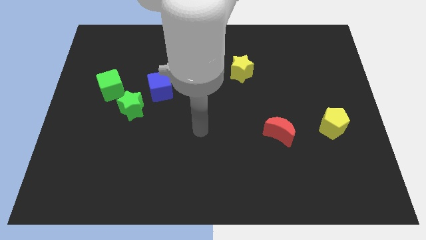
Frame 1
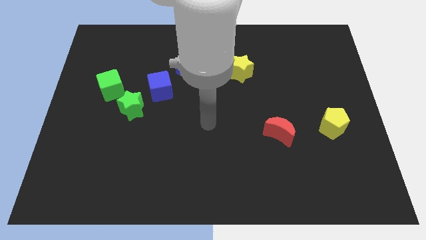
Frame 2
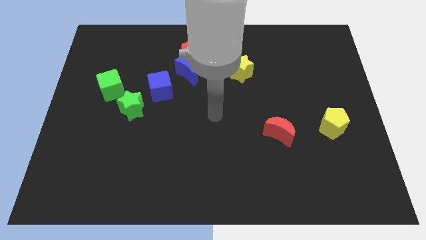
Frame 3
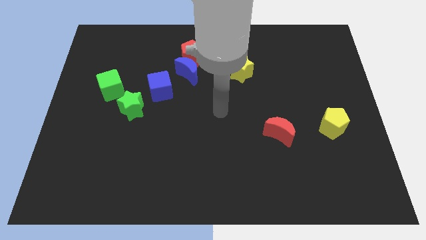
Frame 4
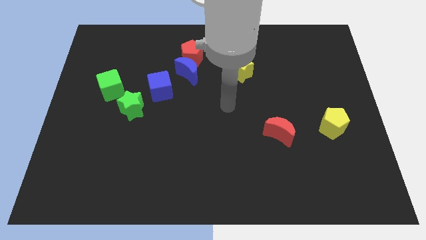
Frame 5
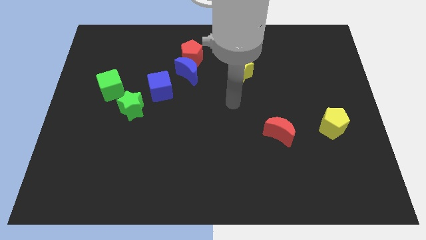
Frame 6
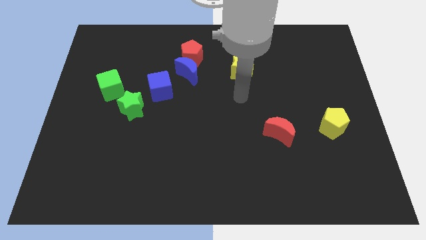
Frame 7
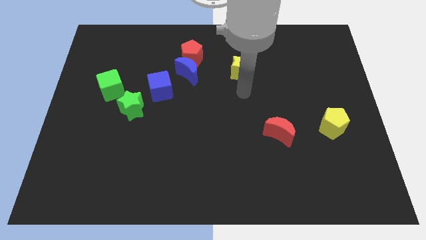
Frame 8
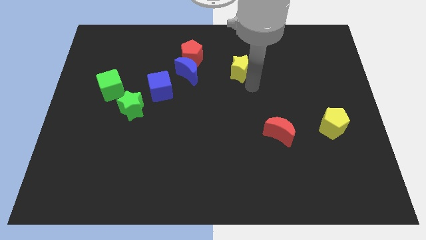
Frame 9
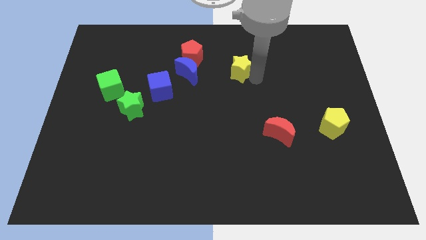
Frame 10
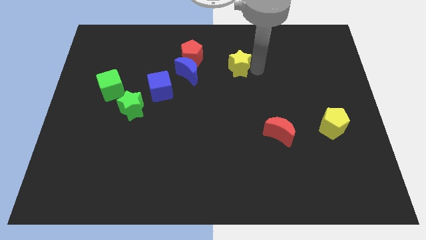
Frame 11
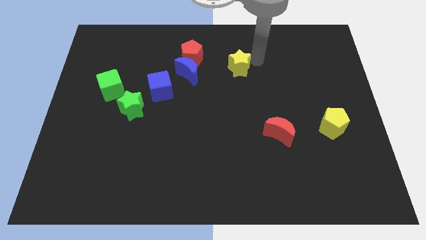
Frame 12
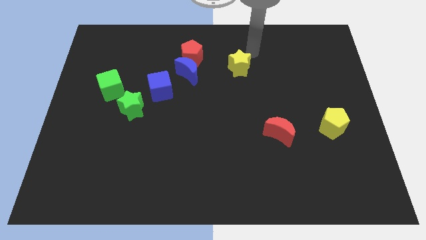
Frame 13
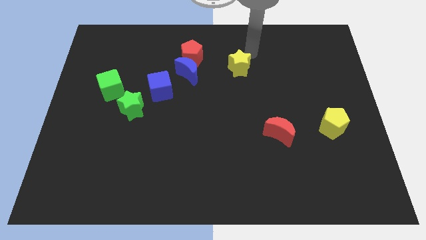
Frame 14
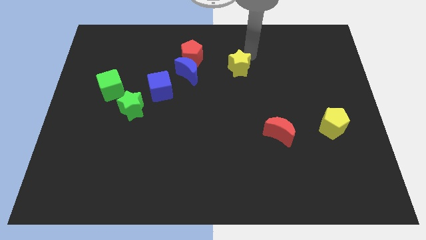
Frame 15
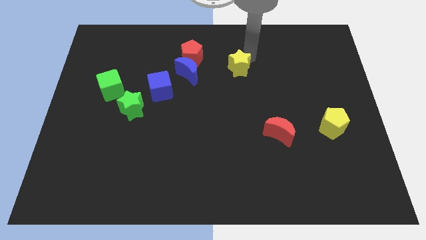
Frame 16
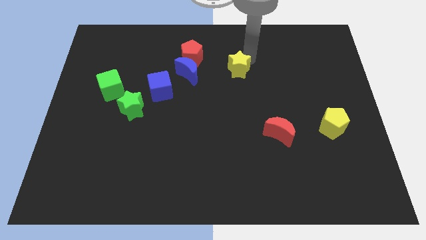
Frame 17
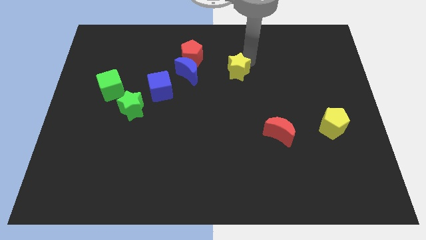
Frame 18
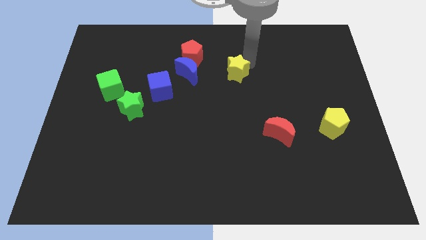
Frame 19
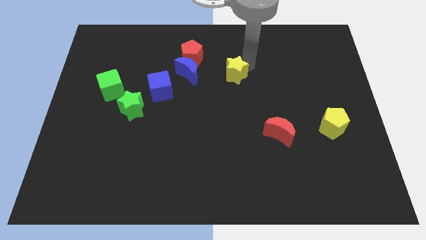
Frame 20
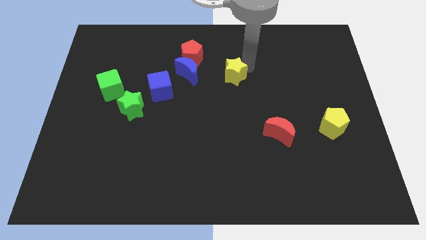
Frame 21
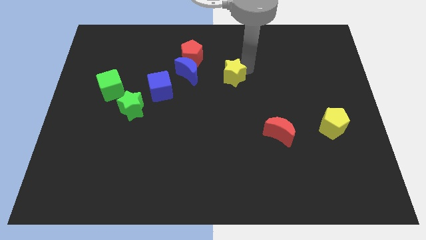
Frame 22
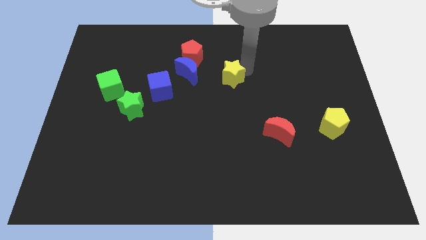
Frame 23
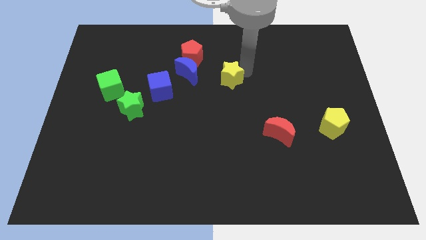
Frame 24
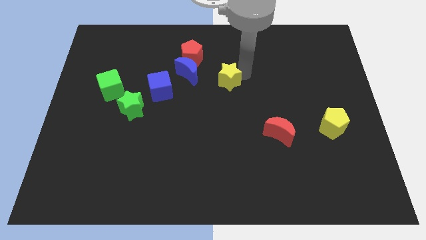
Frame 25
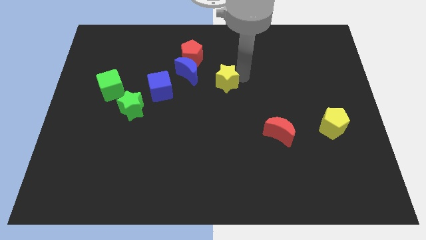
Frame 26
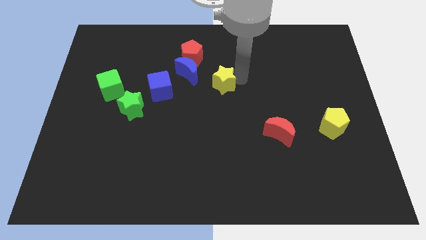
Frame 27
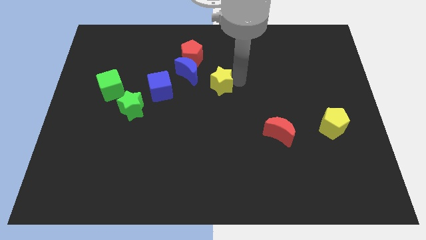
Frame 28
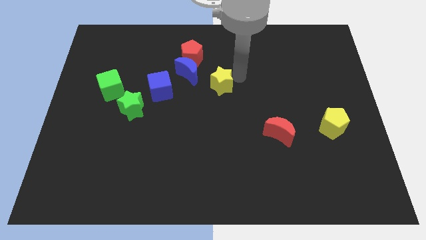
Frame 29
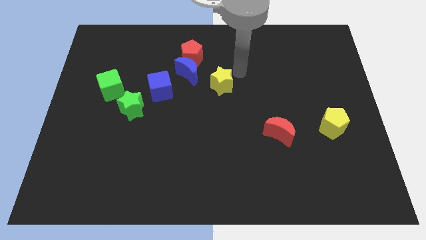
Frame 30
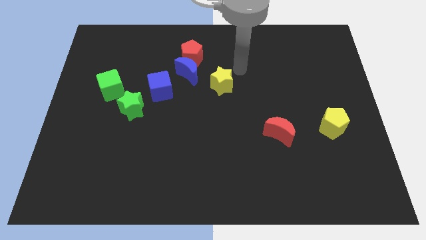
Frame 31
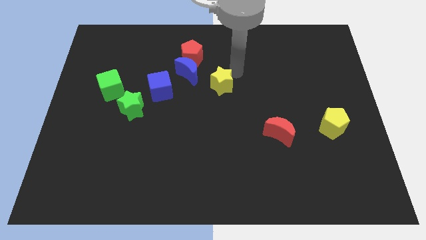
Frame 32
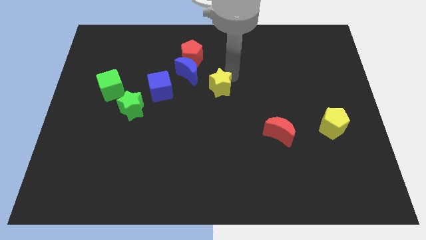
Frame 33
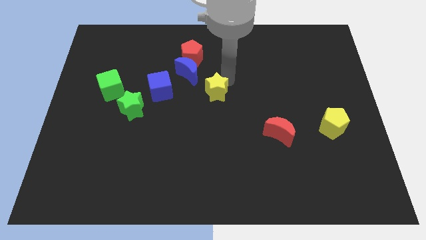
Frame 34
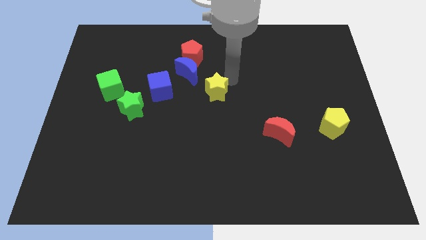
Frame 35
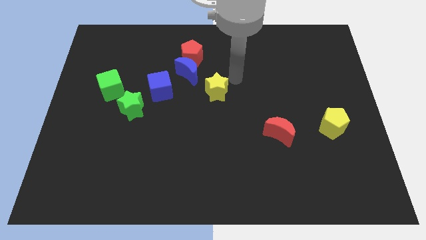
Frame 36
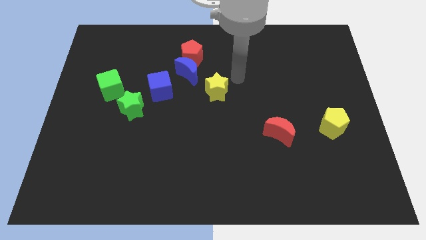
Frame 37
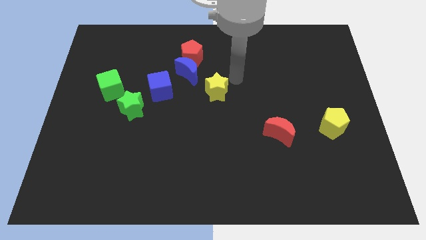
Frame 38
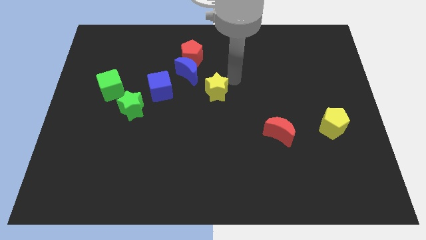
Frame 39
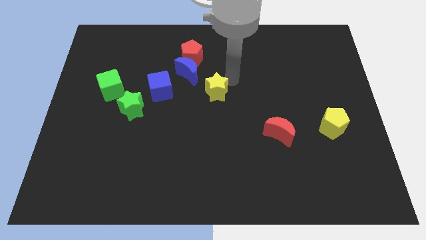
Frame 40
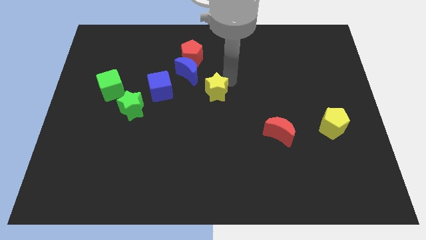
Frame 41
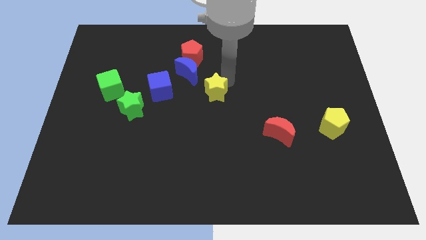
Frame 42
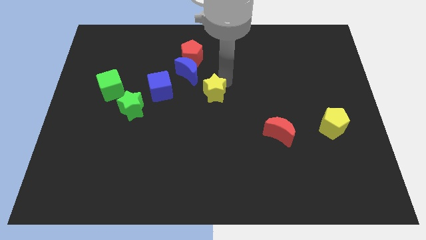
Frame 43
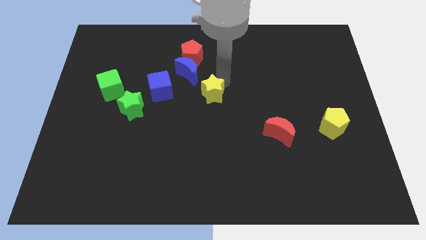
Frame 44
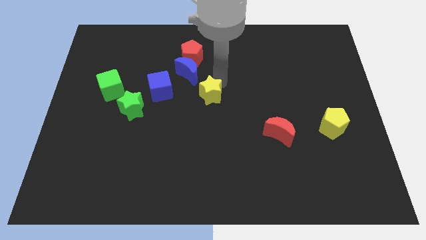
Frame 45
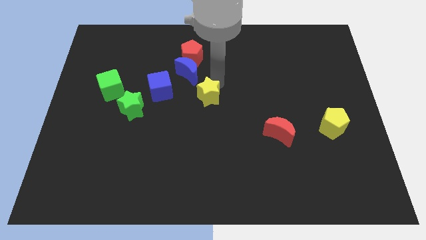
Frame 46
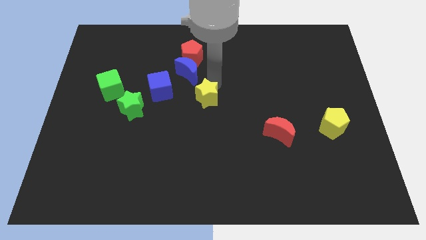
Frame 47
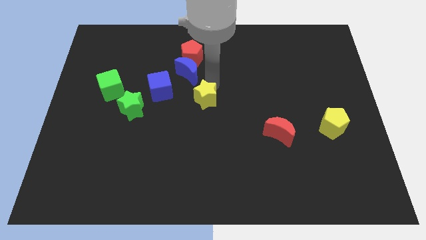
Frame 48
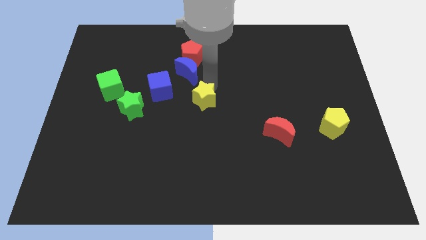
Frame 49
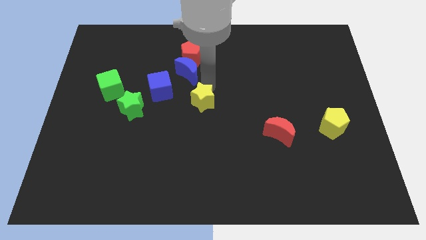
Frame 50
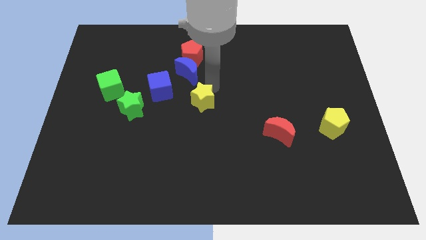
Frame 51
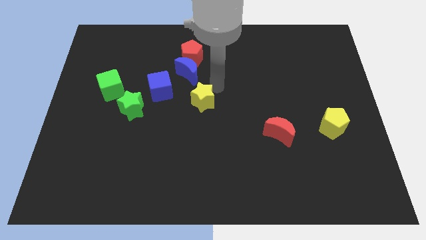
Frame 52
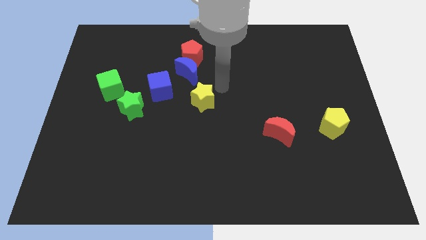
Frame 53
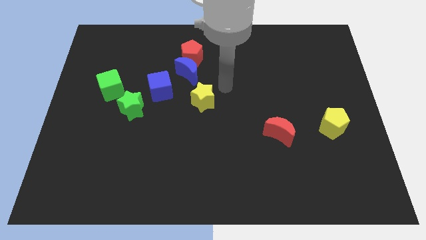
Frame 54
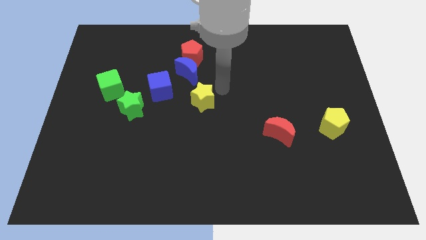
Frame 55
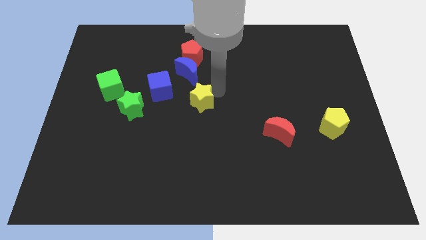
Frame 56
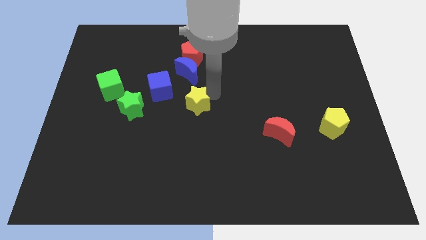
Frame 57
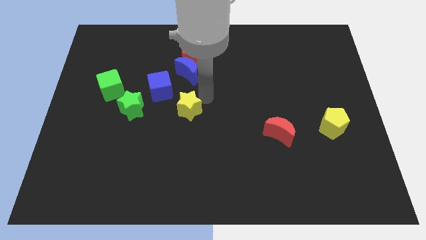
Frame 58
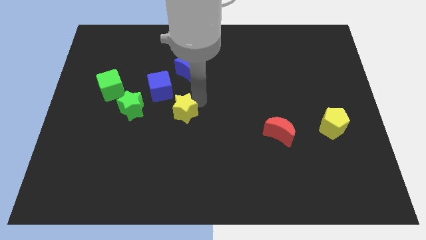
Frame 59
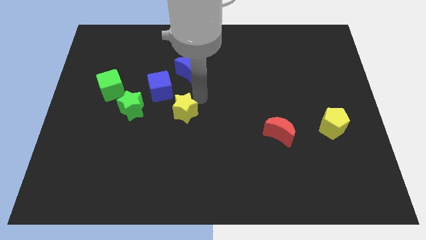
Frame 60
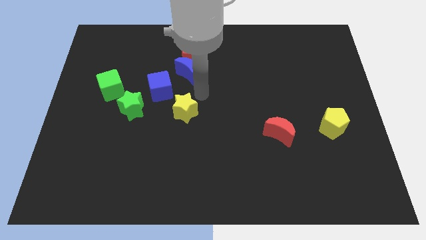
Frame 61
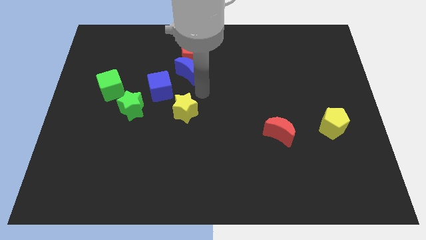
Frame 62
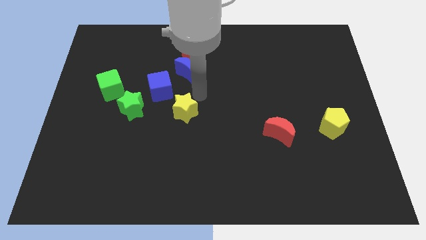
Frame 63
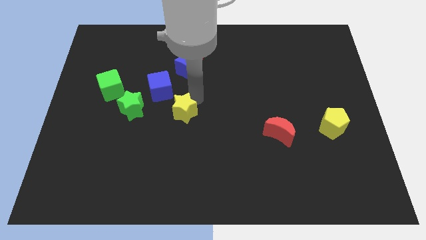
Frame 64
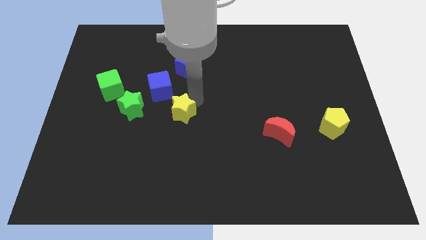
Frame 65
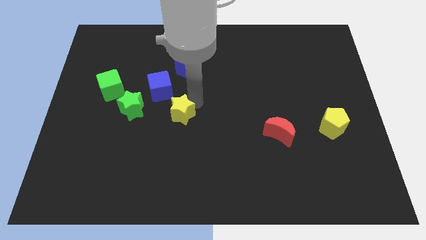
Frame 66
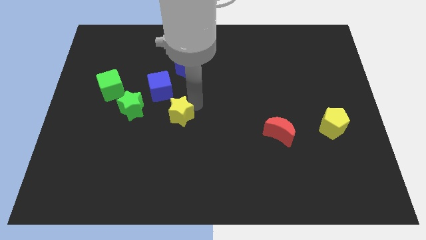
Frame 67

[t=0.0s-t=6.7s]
move the yellow star down and left diagonally

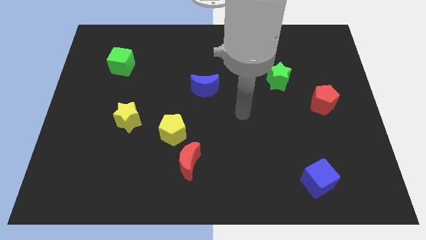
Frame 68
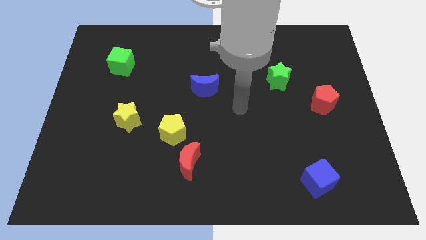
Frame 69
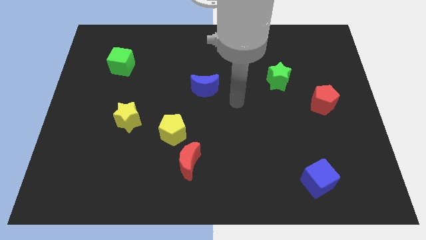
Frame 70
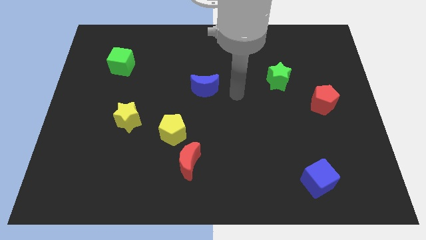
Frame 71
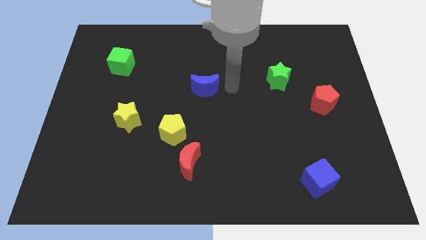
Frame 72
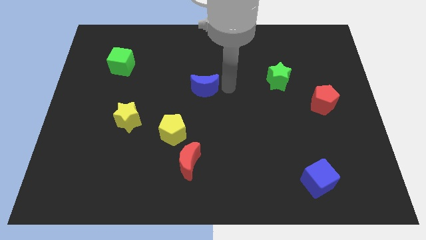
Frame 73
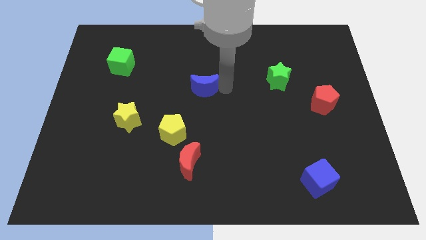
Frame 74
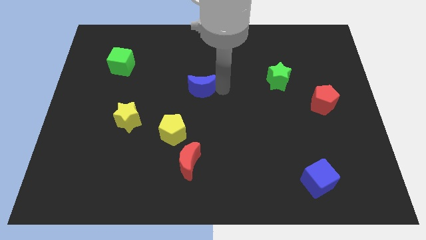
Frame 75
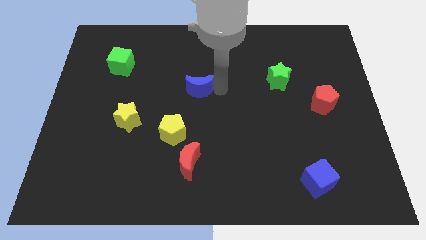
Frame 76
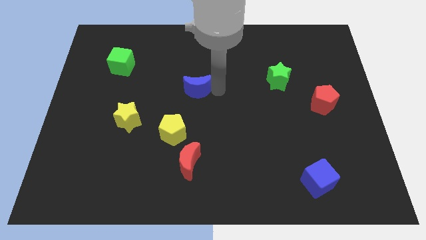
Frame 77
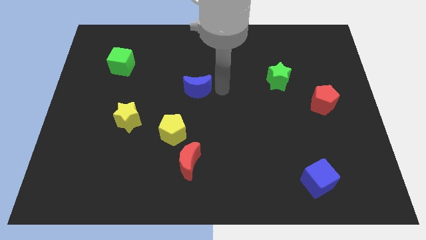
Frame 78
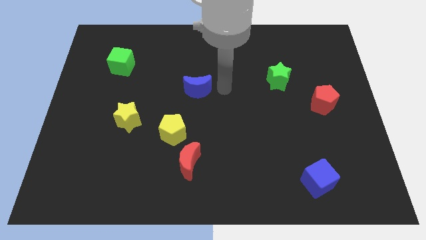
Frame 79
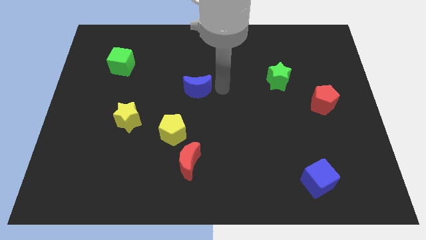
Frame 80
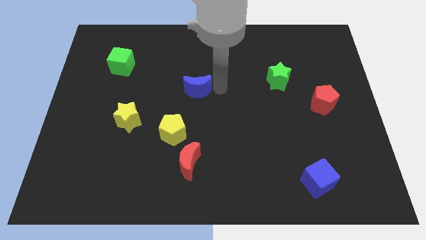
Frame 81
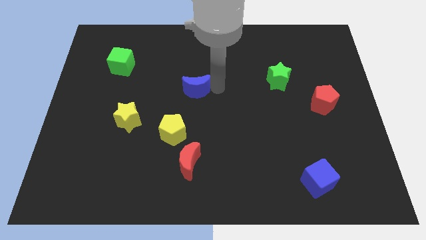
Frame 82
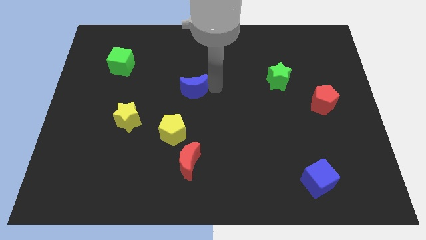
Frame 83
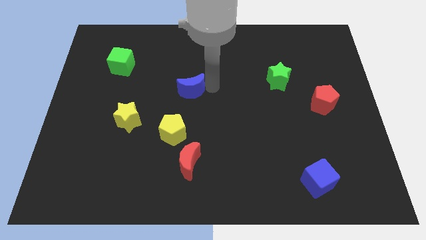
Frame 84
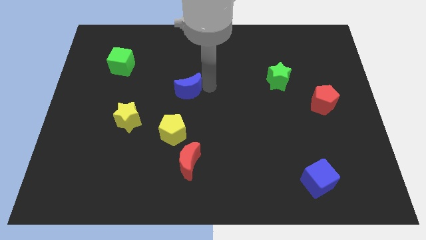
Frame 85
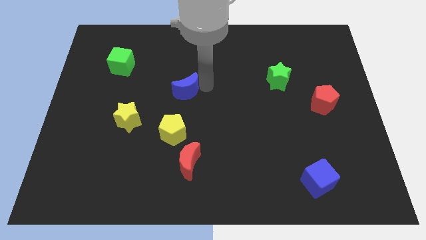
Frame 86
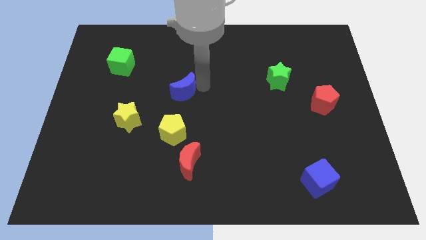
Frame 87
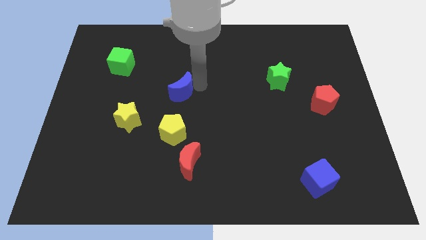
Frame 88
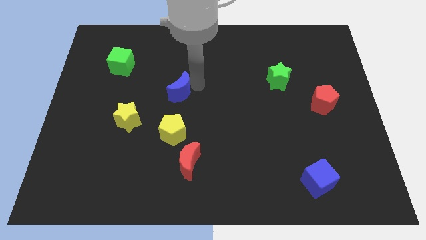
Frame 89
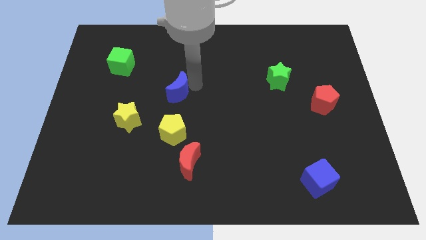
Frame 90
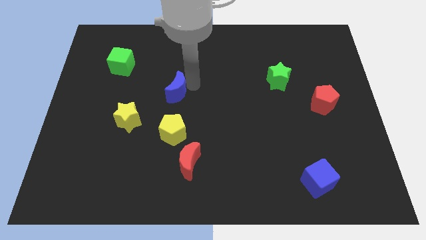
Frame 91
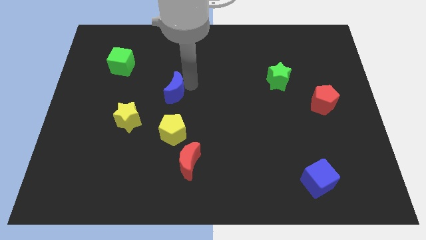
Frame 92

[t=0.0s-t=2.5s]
slightly push the blue moon left
